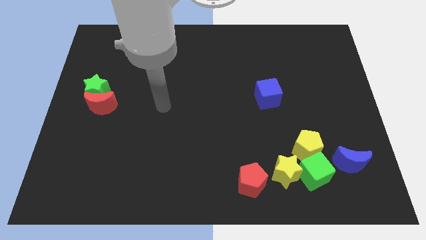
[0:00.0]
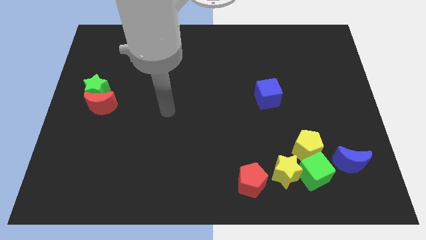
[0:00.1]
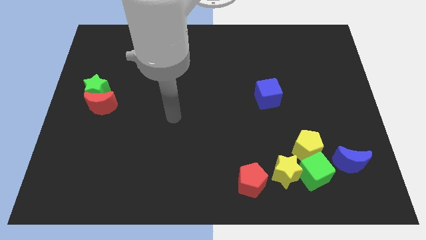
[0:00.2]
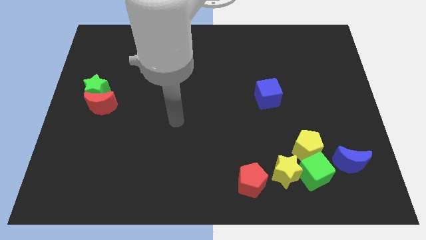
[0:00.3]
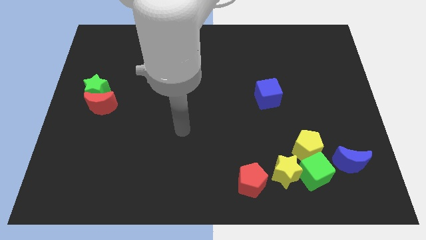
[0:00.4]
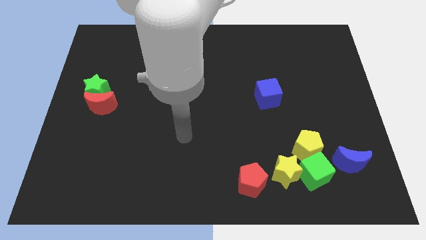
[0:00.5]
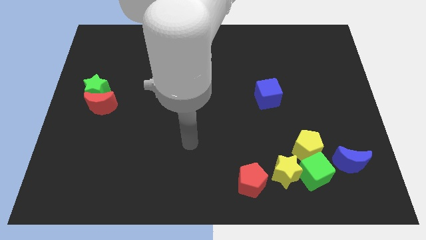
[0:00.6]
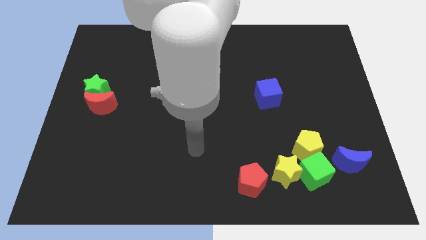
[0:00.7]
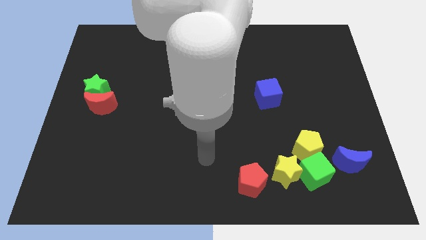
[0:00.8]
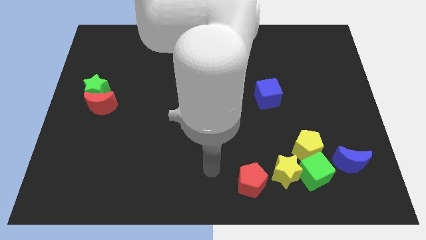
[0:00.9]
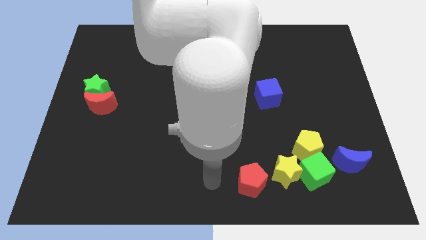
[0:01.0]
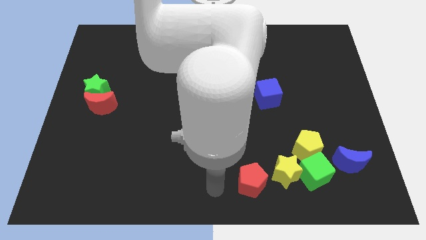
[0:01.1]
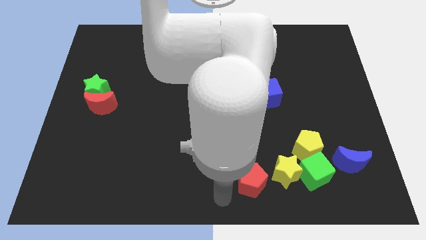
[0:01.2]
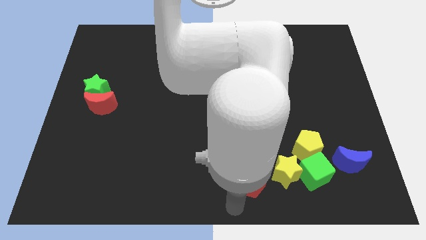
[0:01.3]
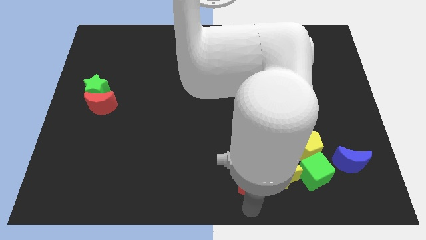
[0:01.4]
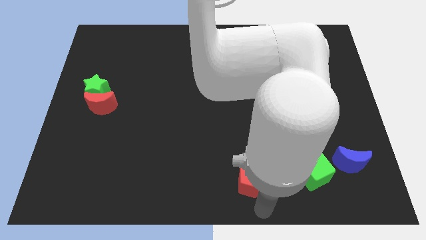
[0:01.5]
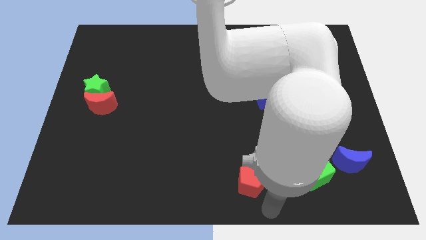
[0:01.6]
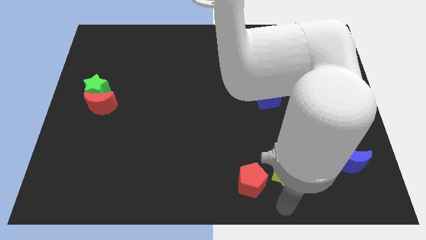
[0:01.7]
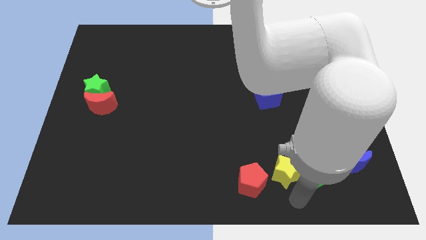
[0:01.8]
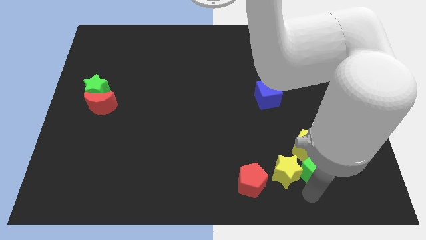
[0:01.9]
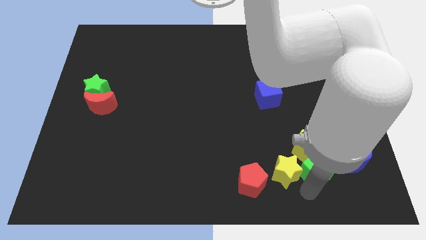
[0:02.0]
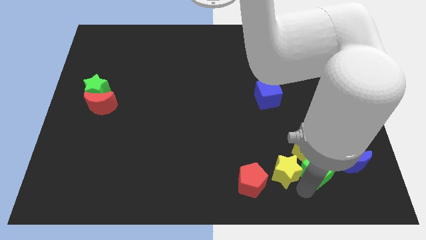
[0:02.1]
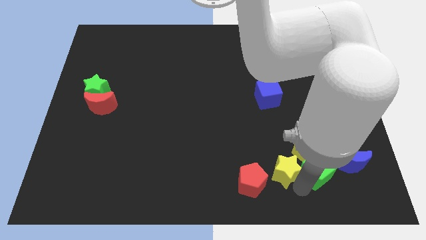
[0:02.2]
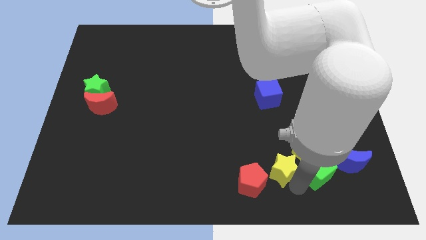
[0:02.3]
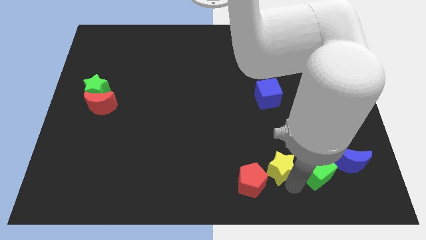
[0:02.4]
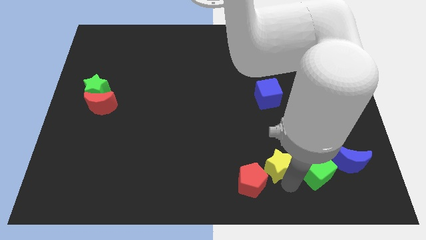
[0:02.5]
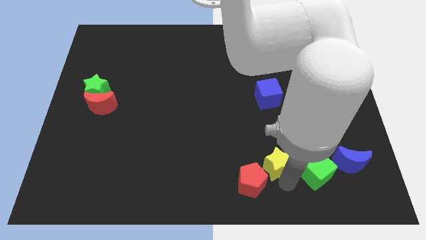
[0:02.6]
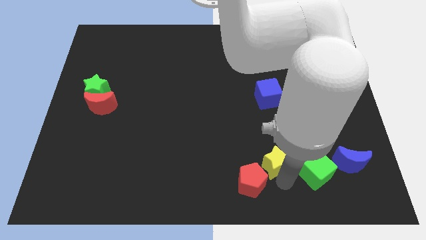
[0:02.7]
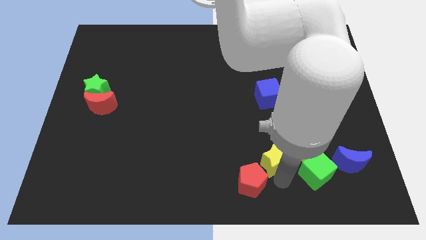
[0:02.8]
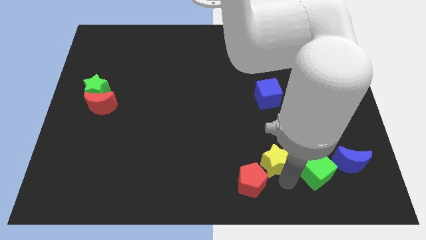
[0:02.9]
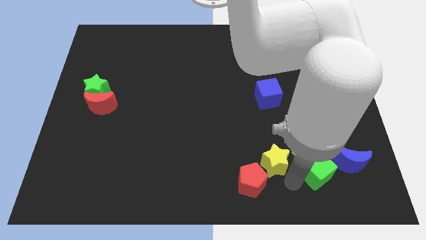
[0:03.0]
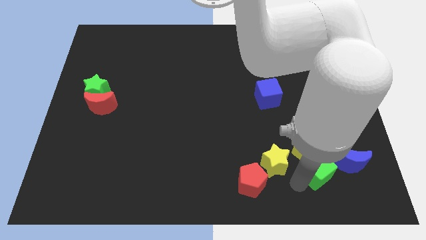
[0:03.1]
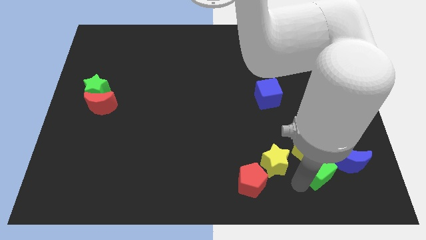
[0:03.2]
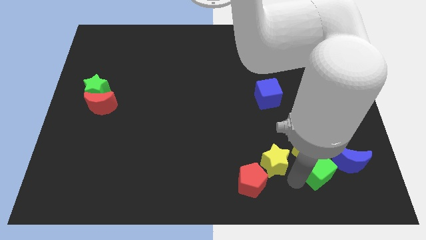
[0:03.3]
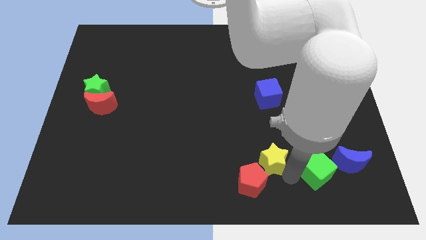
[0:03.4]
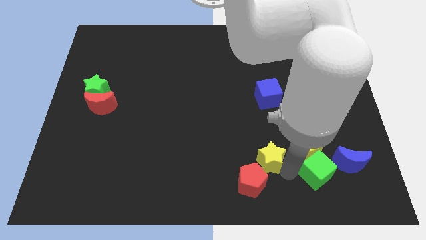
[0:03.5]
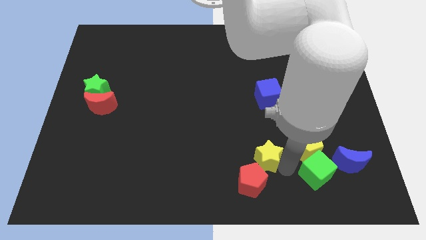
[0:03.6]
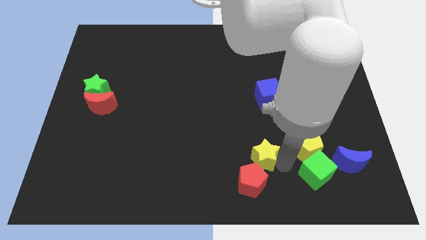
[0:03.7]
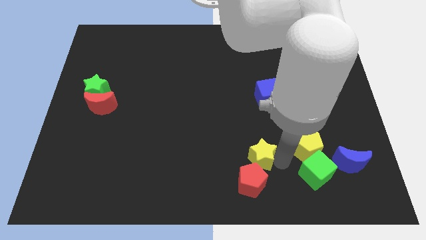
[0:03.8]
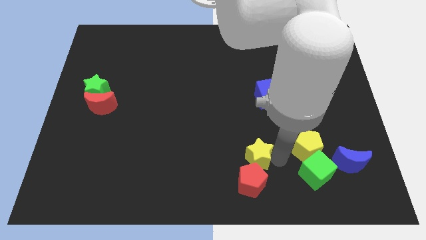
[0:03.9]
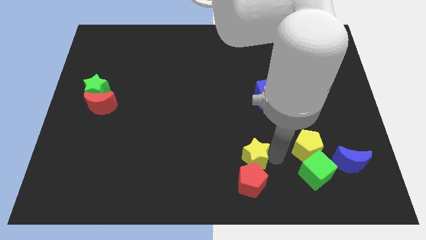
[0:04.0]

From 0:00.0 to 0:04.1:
move the yellow star diagonally upwards and to the left a little bit

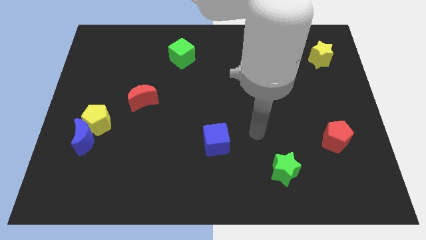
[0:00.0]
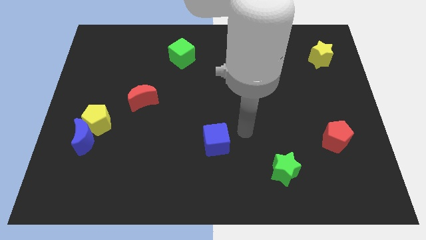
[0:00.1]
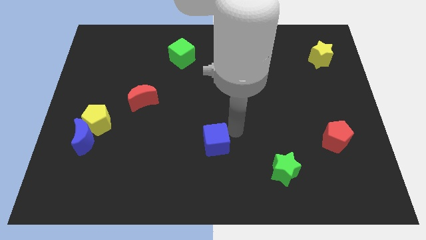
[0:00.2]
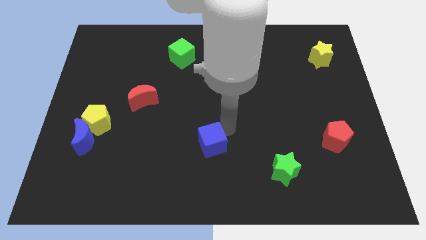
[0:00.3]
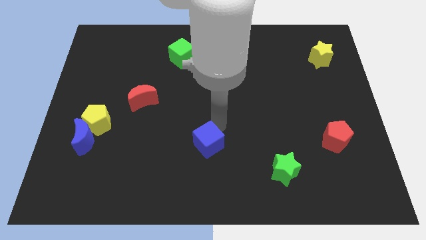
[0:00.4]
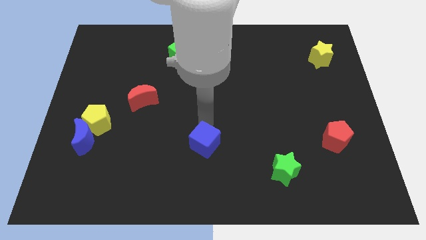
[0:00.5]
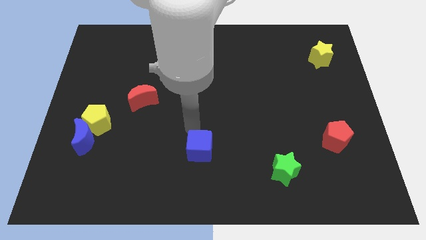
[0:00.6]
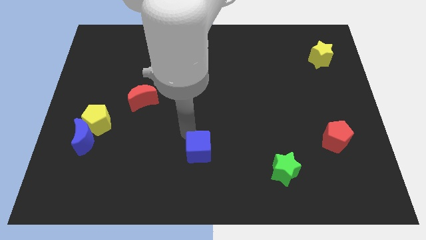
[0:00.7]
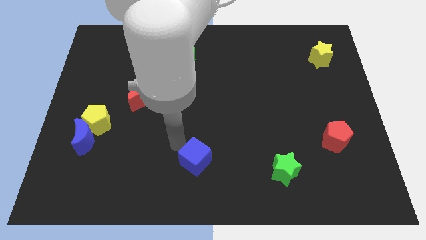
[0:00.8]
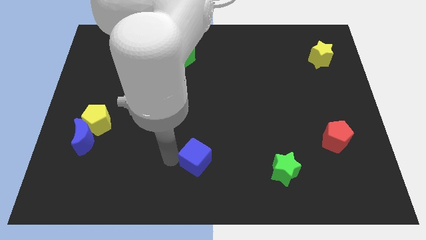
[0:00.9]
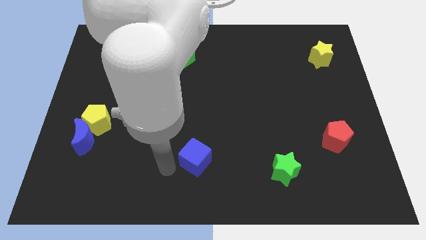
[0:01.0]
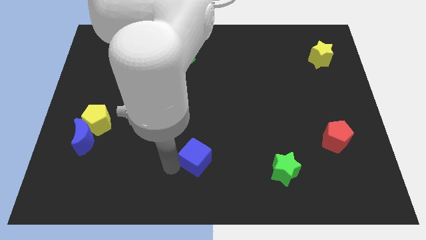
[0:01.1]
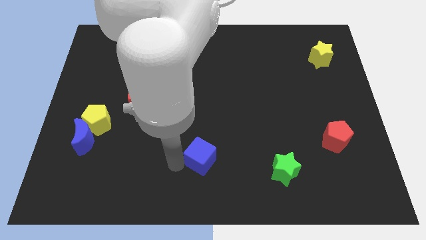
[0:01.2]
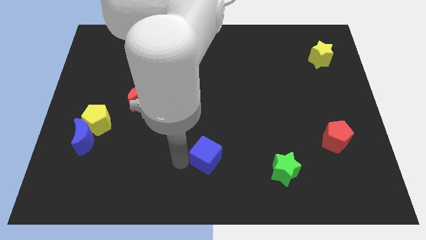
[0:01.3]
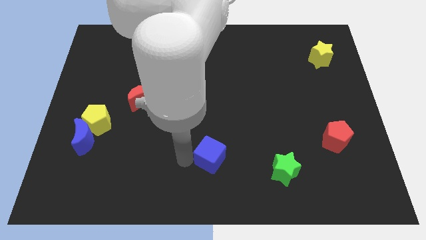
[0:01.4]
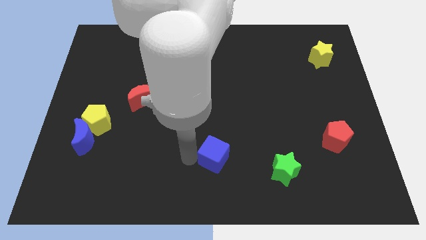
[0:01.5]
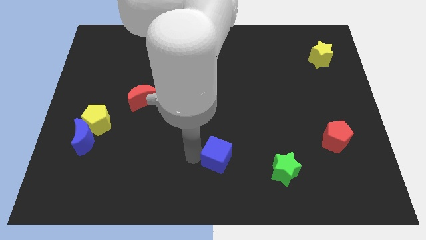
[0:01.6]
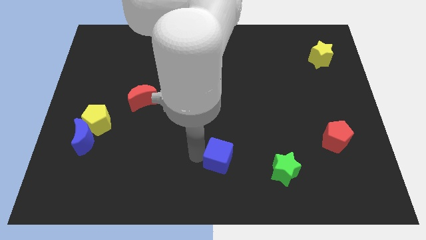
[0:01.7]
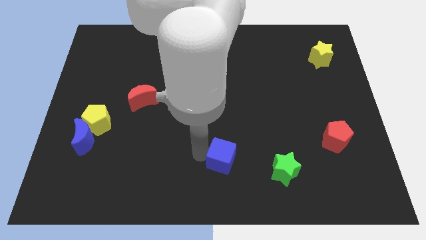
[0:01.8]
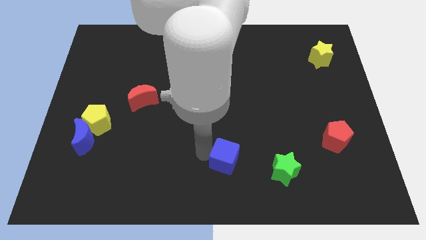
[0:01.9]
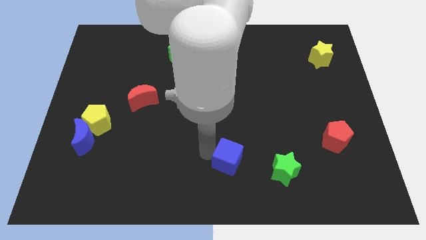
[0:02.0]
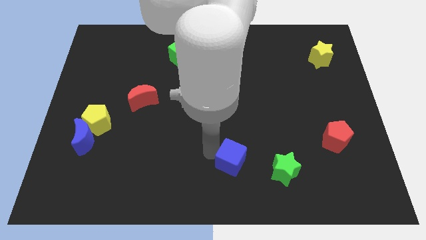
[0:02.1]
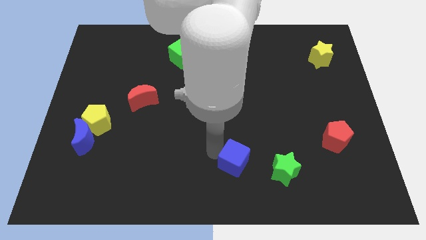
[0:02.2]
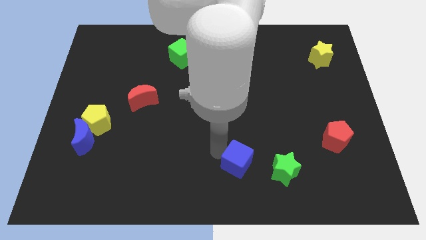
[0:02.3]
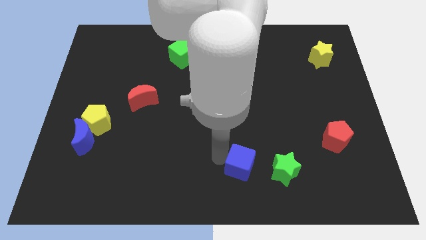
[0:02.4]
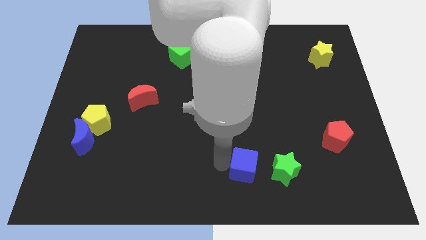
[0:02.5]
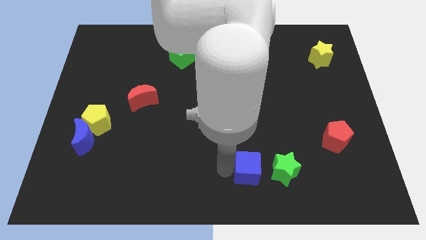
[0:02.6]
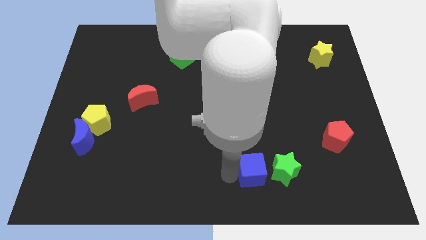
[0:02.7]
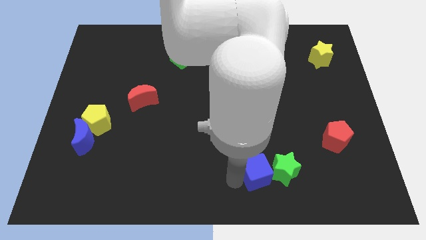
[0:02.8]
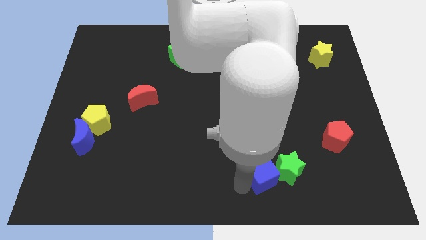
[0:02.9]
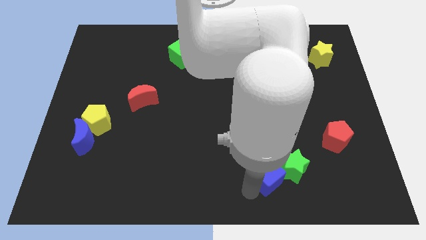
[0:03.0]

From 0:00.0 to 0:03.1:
move the blue cube somewhat to the right

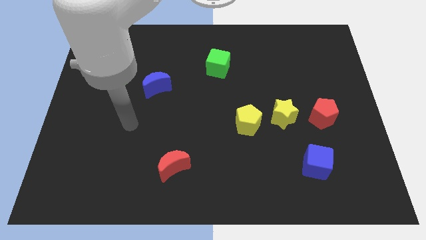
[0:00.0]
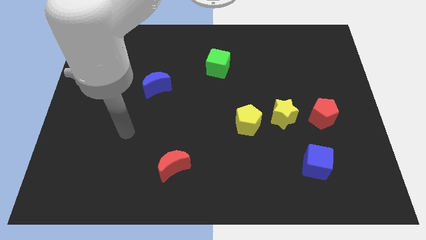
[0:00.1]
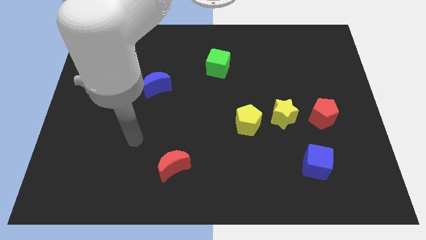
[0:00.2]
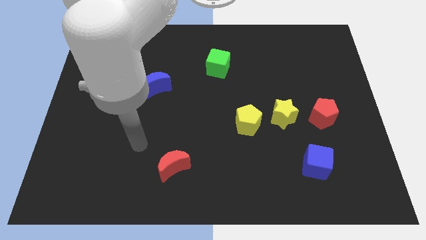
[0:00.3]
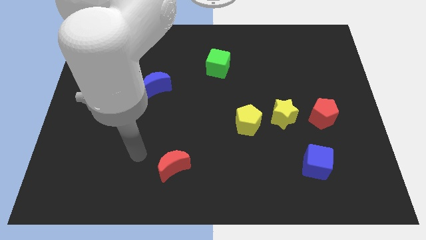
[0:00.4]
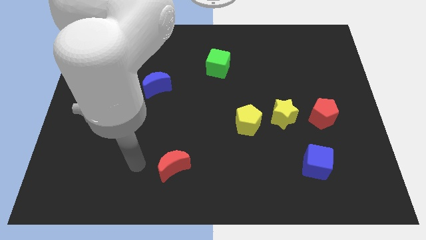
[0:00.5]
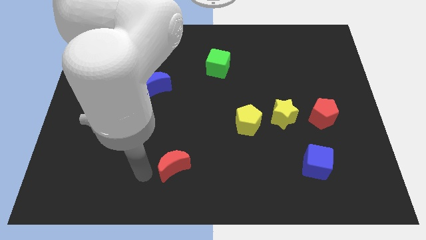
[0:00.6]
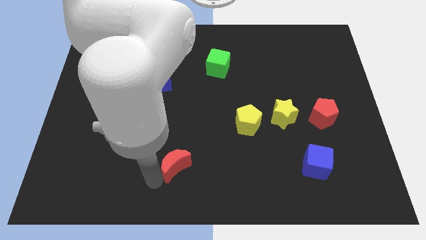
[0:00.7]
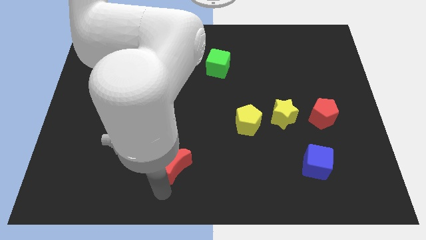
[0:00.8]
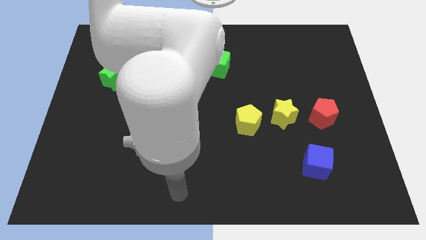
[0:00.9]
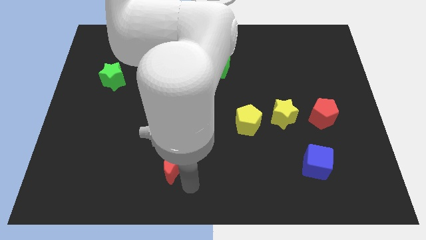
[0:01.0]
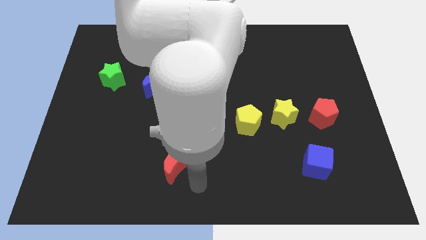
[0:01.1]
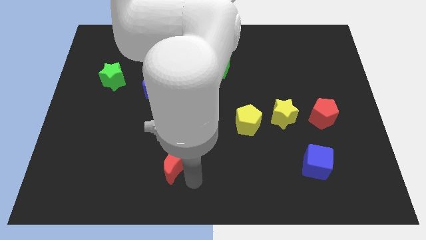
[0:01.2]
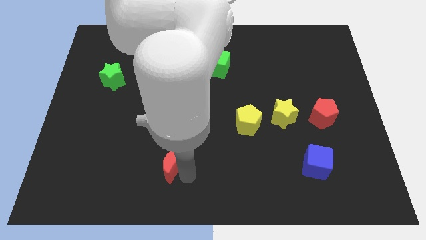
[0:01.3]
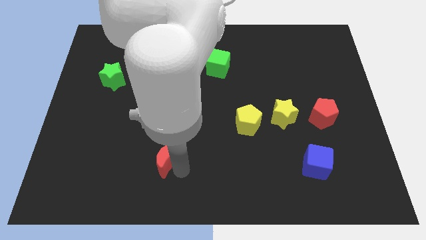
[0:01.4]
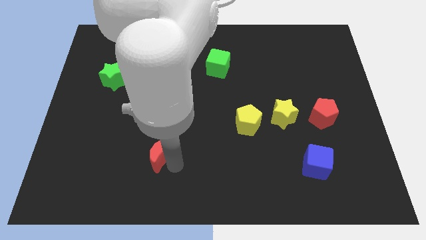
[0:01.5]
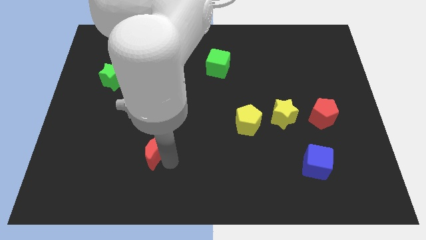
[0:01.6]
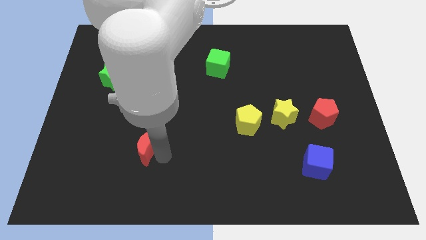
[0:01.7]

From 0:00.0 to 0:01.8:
push the red moon upwards and to the left diagonally a bit
